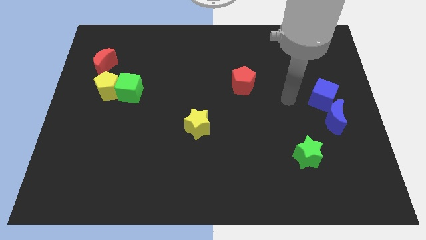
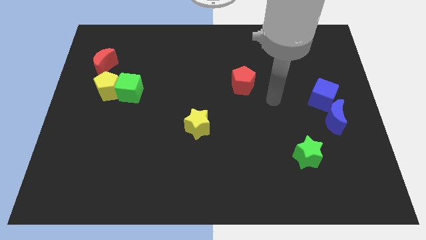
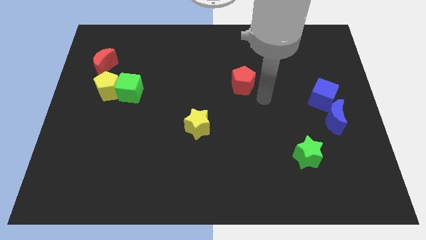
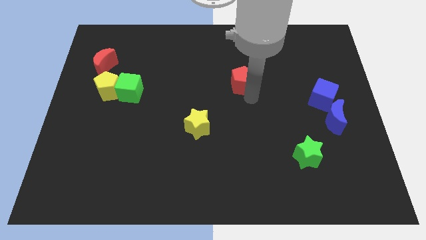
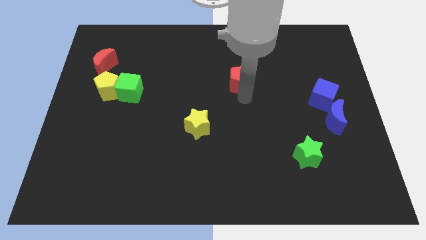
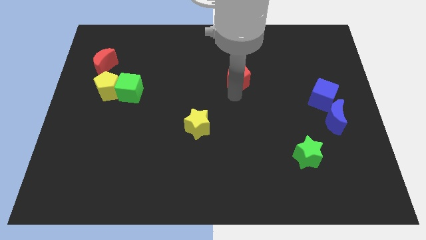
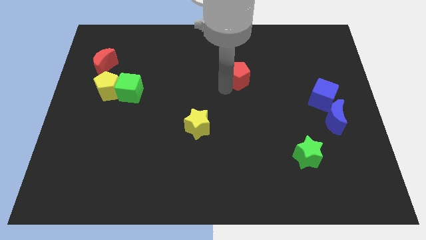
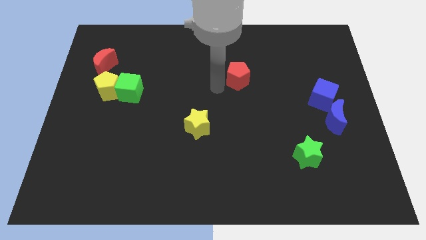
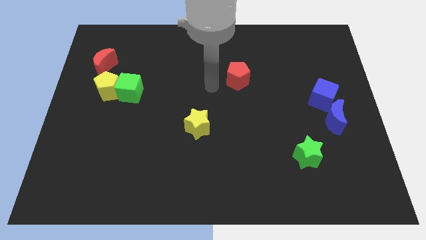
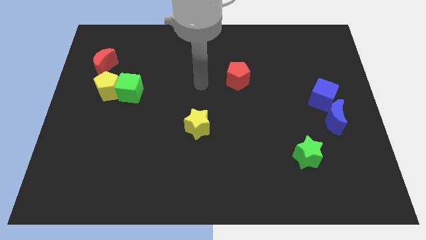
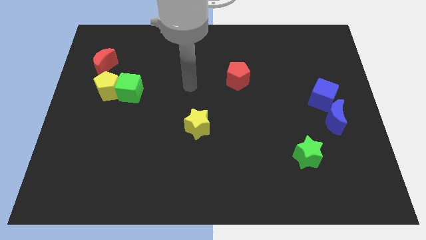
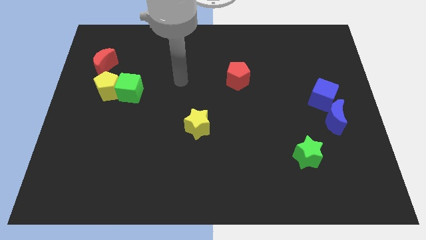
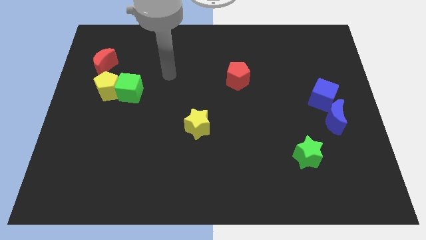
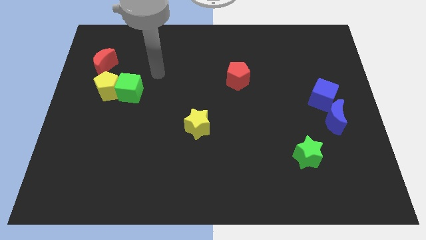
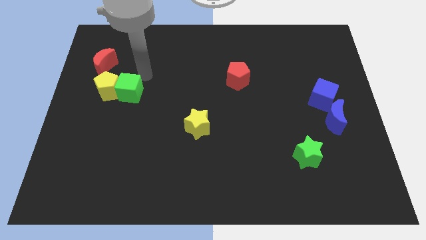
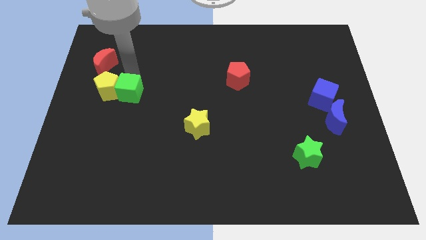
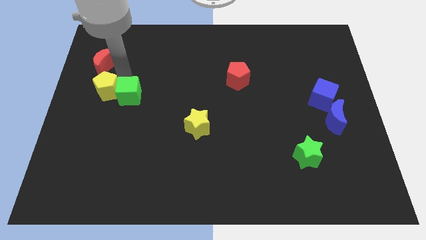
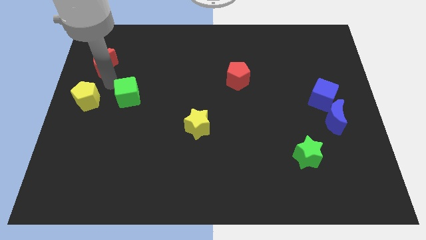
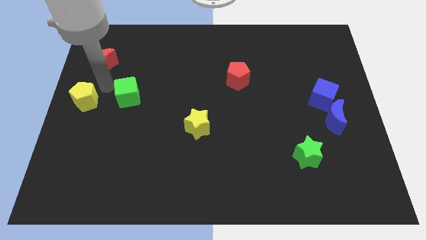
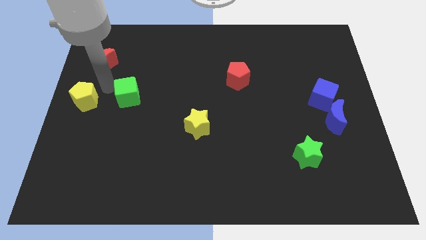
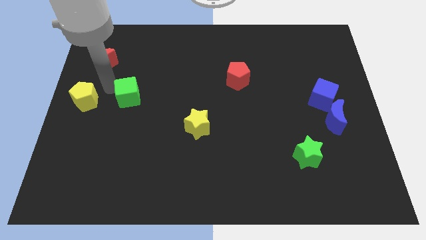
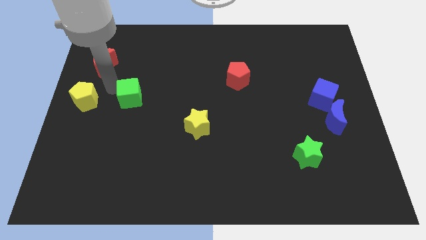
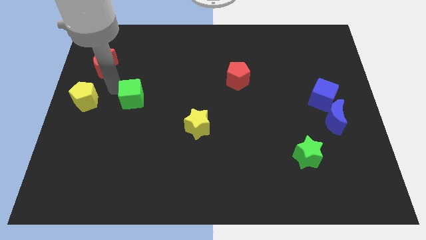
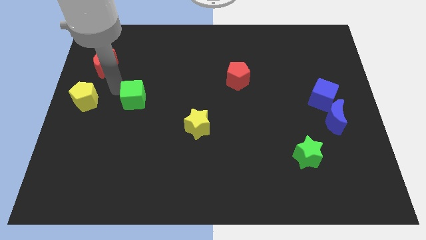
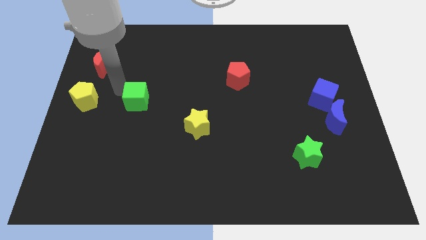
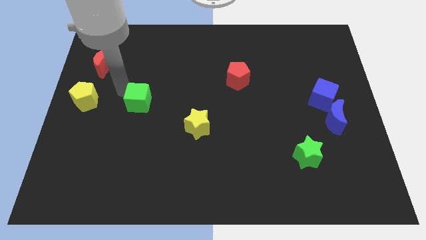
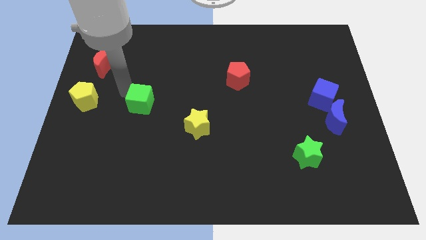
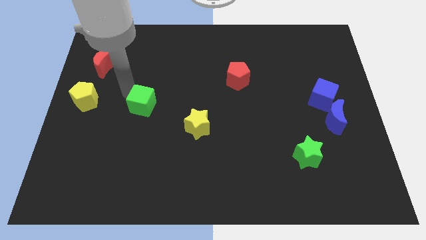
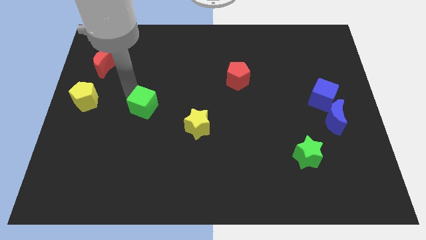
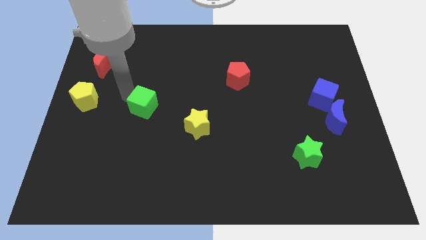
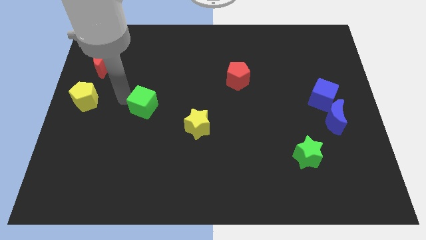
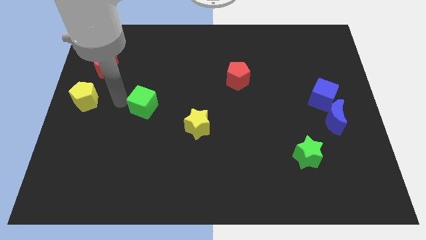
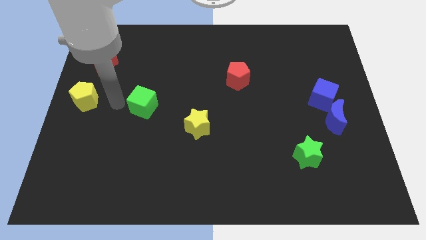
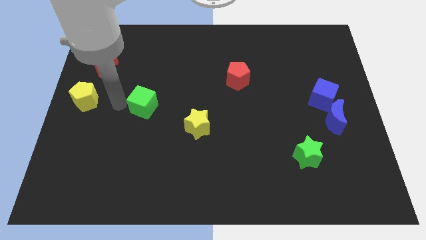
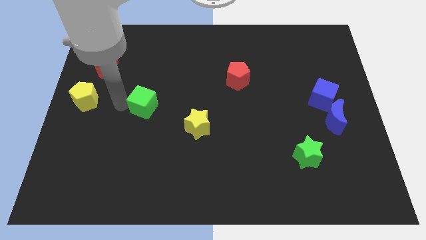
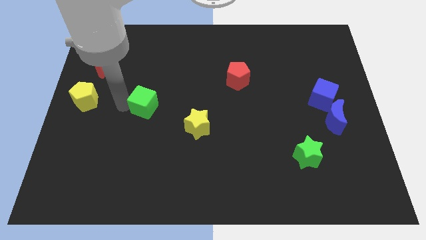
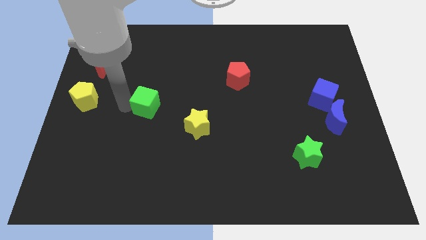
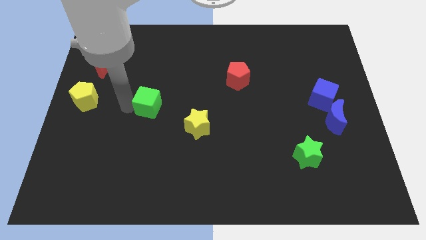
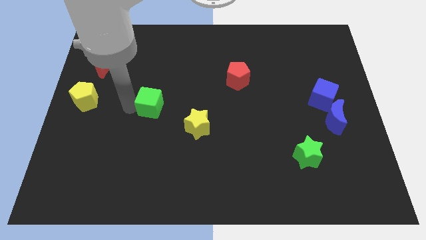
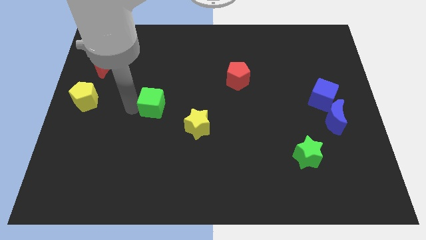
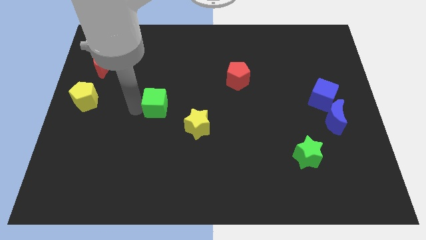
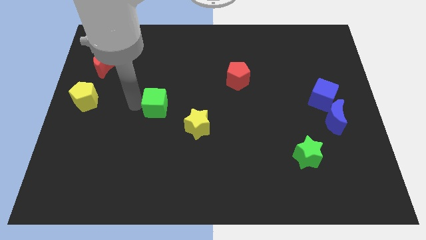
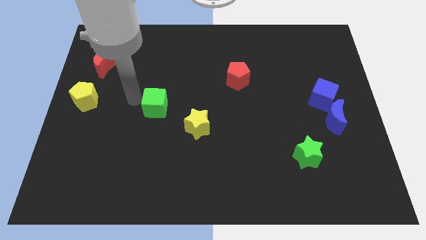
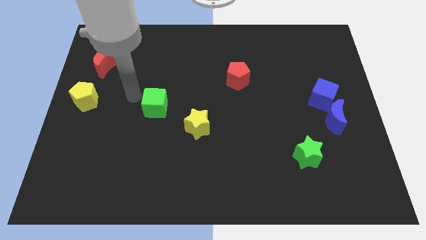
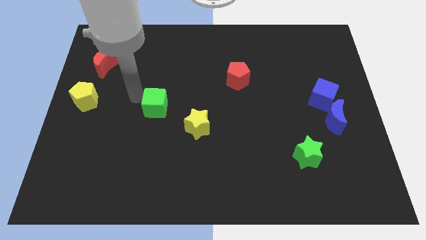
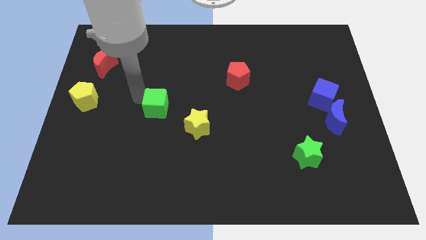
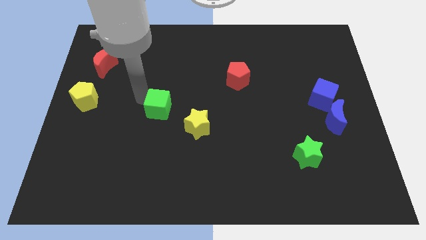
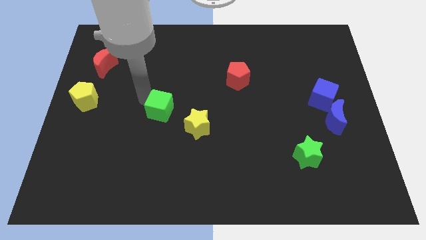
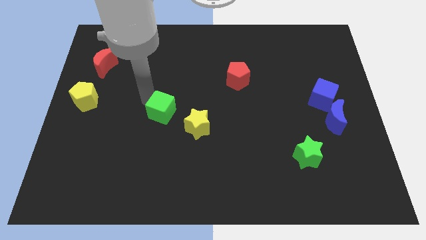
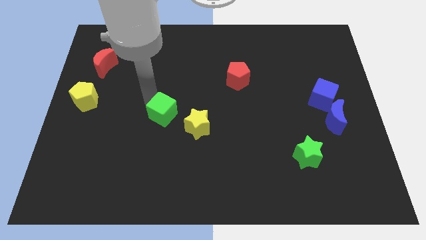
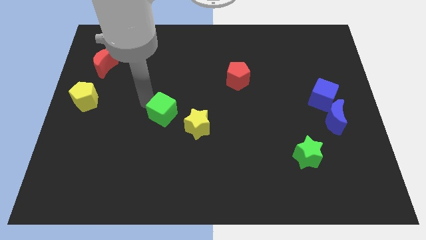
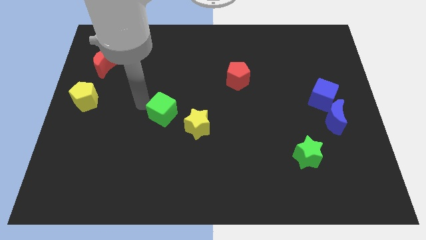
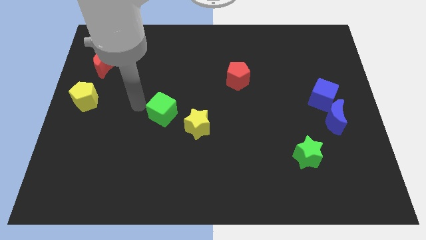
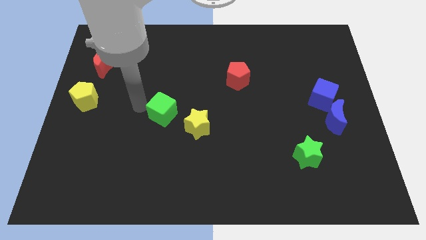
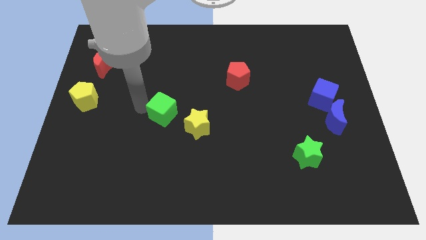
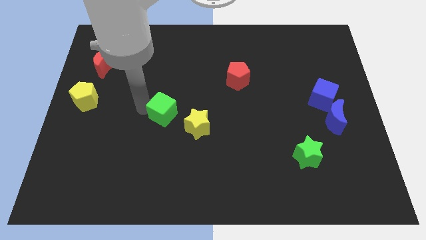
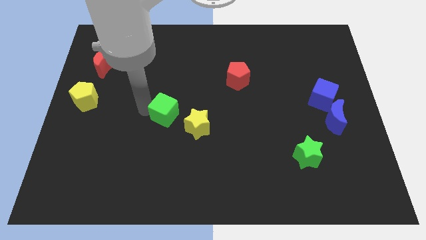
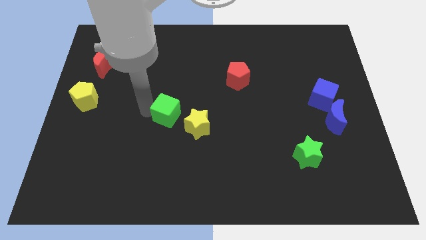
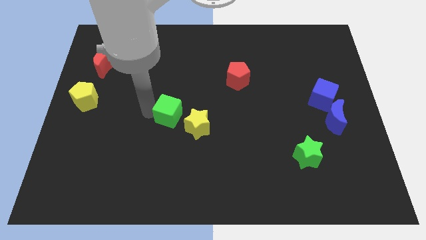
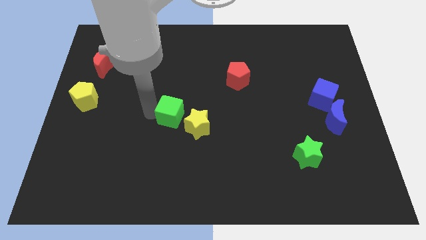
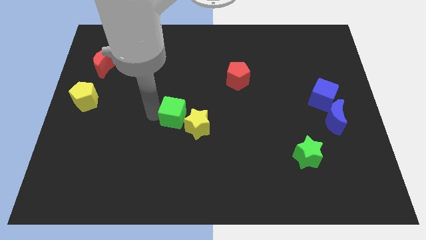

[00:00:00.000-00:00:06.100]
move the green cube towards the yellow star
